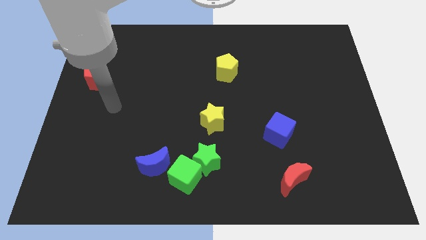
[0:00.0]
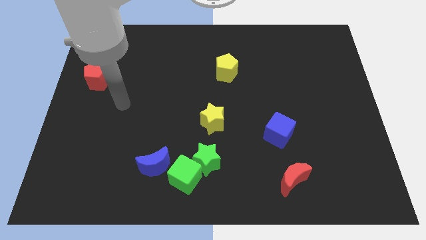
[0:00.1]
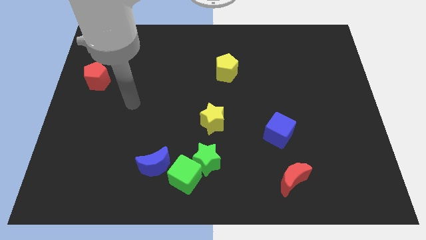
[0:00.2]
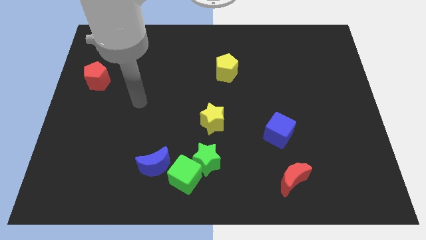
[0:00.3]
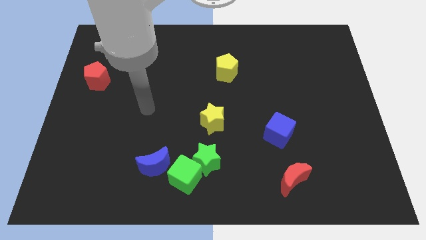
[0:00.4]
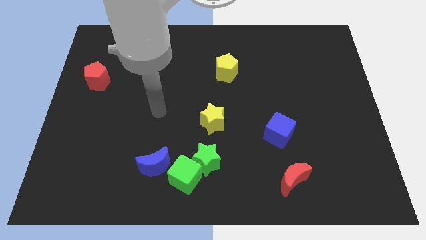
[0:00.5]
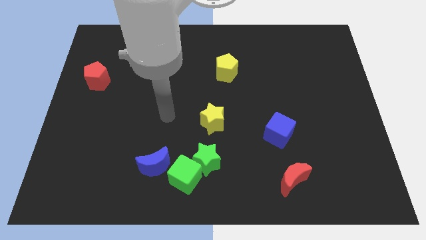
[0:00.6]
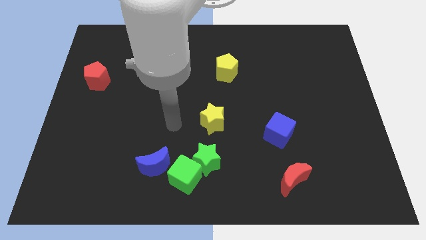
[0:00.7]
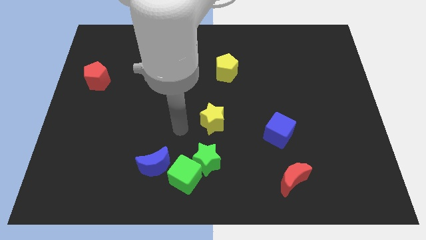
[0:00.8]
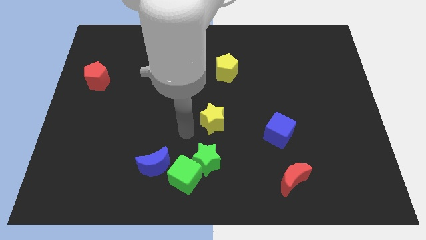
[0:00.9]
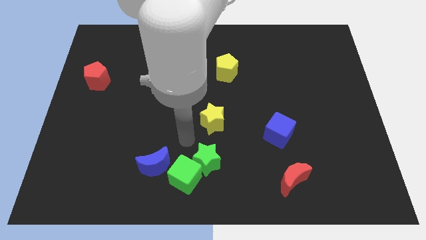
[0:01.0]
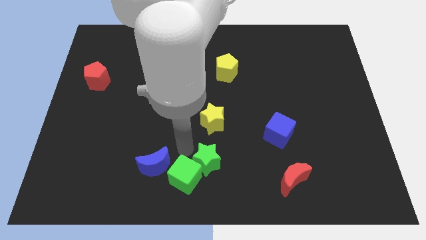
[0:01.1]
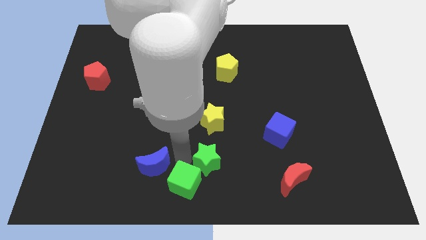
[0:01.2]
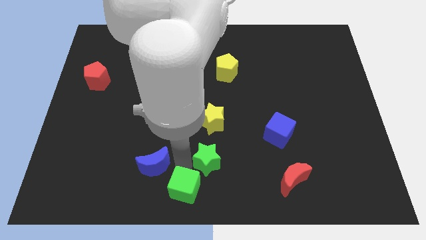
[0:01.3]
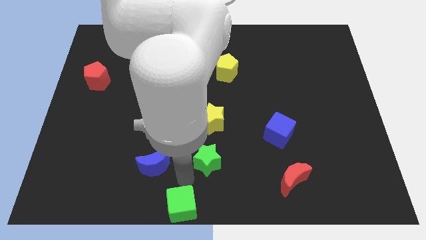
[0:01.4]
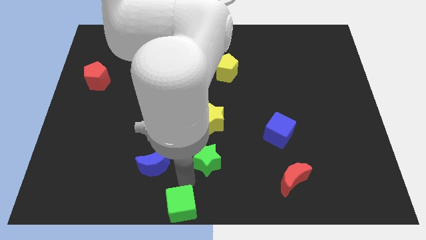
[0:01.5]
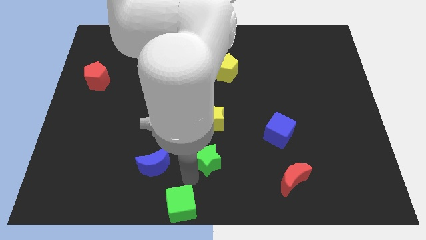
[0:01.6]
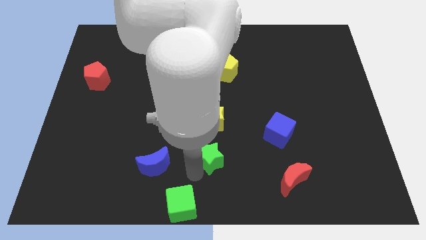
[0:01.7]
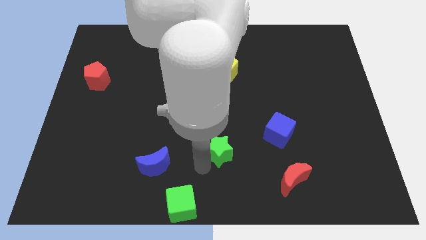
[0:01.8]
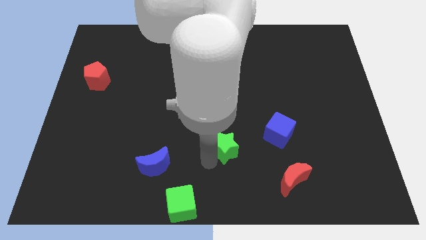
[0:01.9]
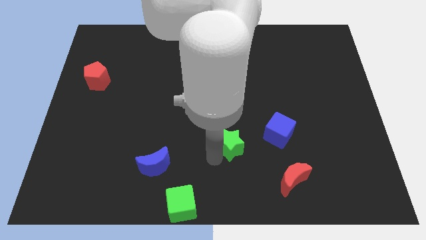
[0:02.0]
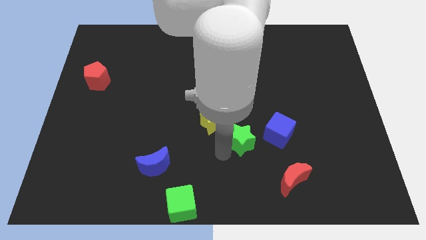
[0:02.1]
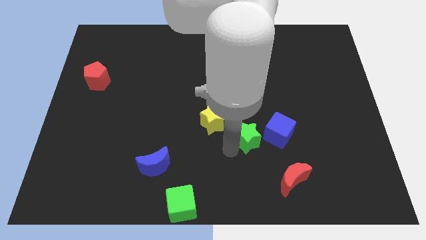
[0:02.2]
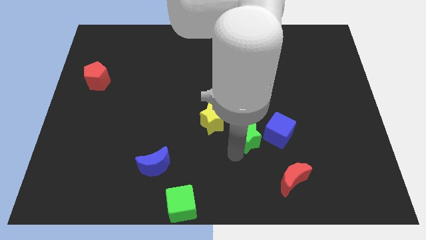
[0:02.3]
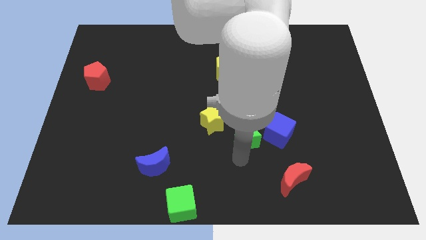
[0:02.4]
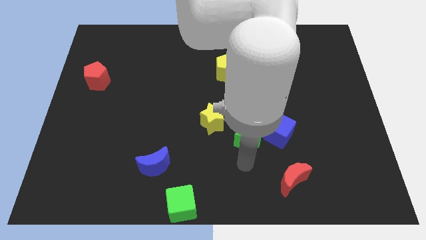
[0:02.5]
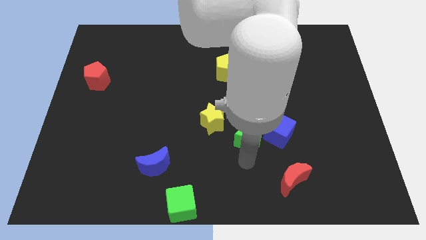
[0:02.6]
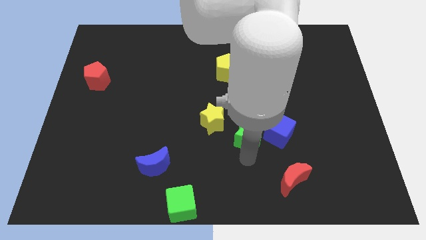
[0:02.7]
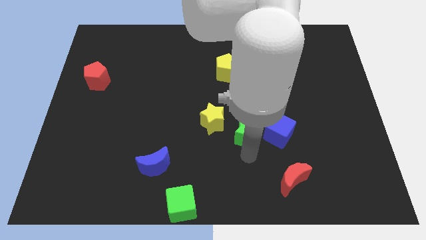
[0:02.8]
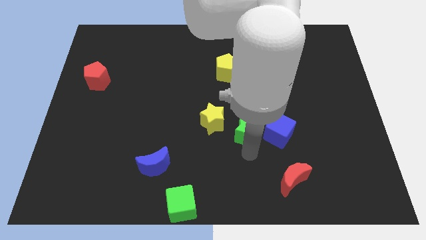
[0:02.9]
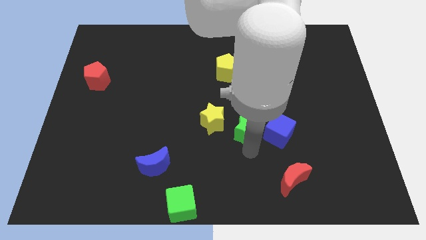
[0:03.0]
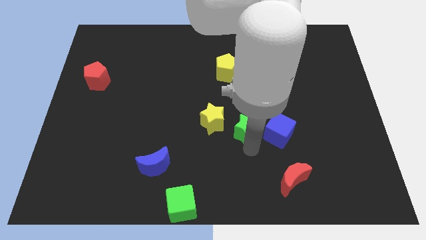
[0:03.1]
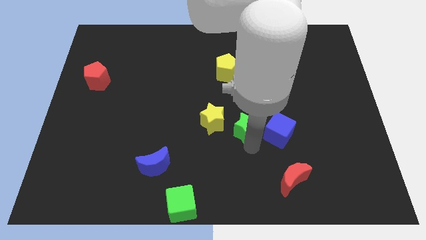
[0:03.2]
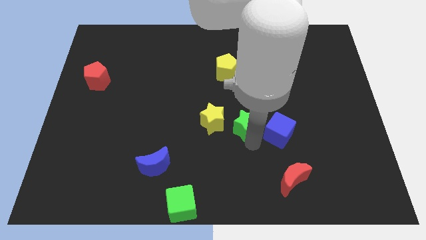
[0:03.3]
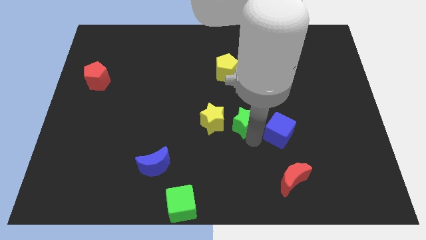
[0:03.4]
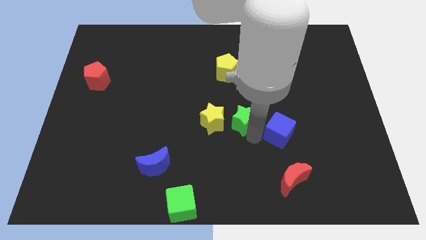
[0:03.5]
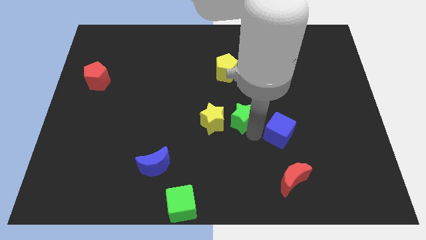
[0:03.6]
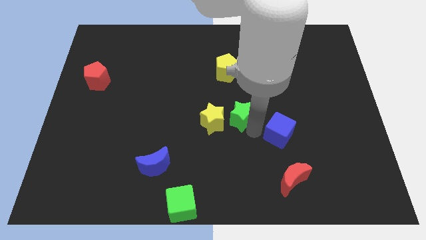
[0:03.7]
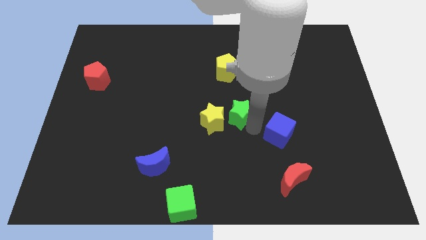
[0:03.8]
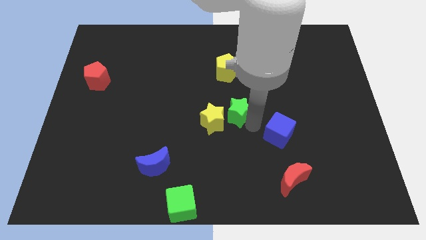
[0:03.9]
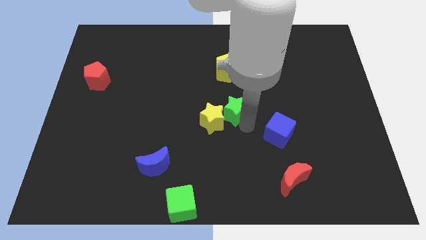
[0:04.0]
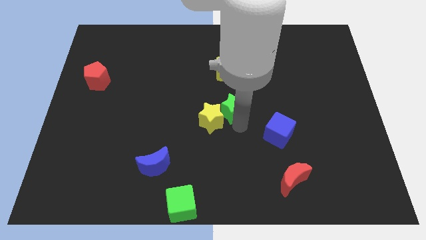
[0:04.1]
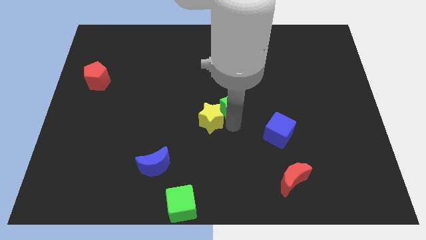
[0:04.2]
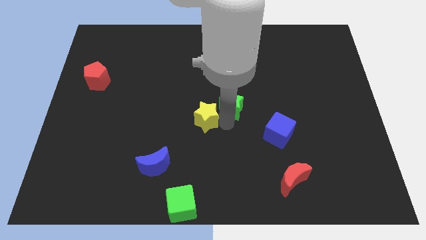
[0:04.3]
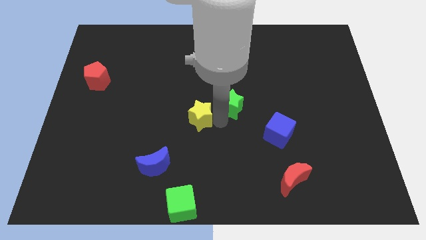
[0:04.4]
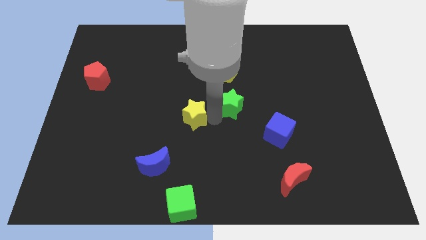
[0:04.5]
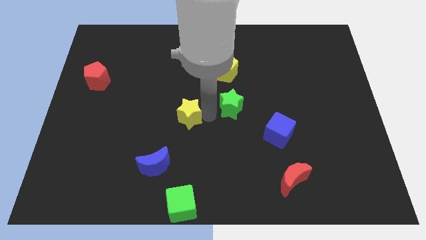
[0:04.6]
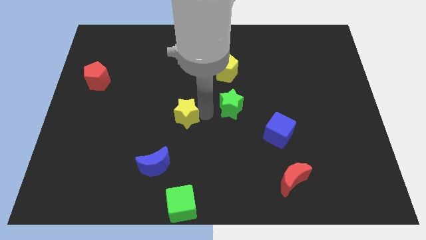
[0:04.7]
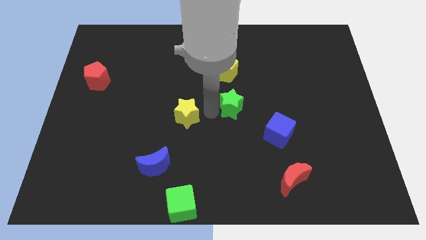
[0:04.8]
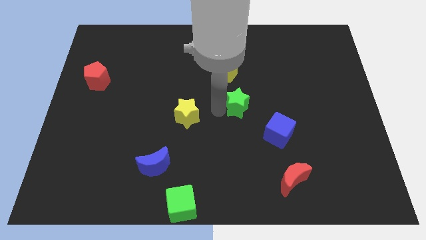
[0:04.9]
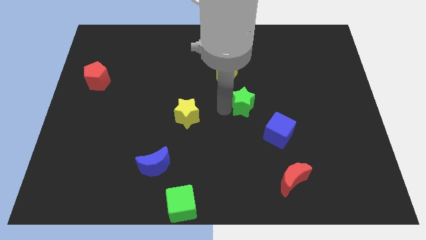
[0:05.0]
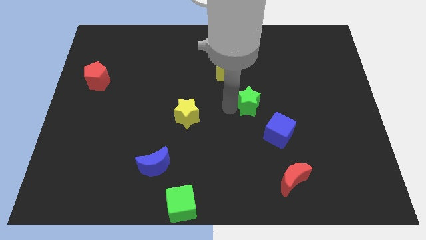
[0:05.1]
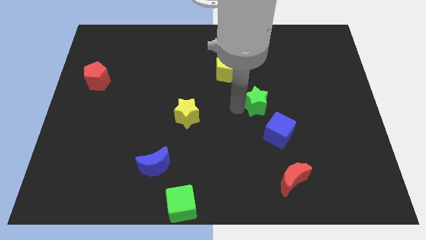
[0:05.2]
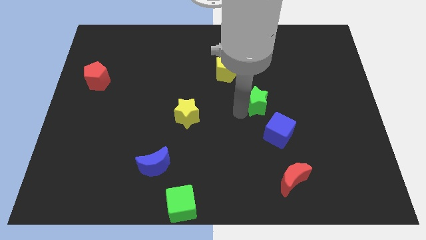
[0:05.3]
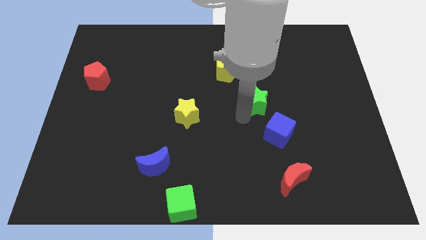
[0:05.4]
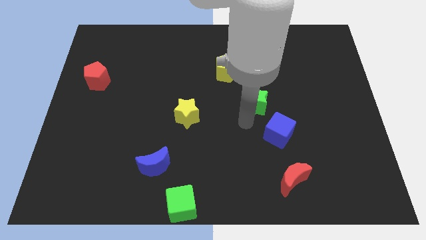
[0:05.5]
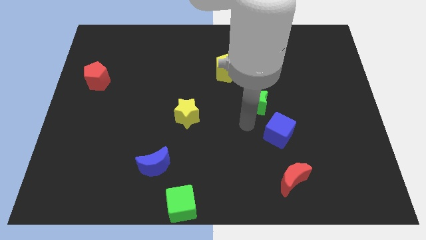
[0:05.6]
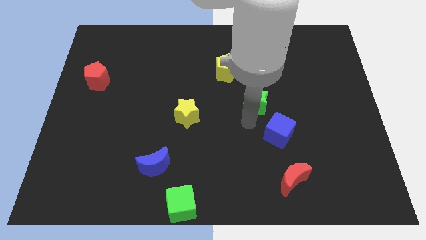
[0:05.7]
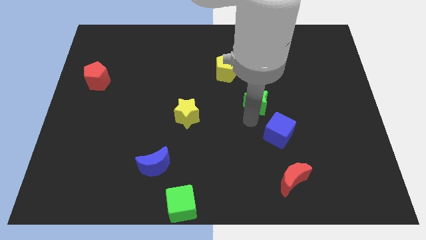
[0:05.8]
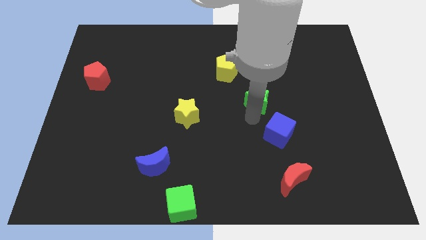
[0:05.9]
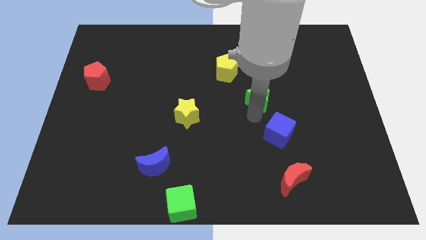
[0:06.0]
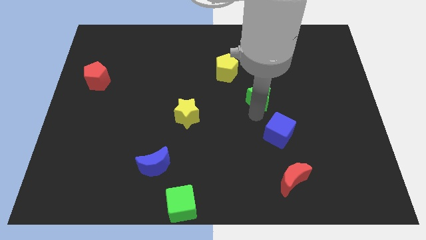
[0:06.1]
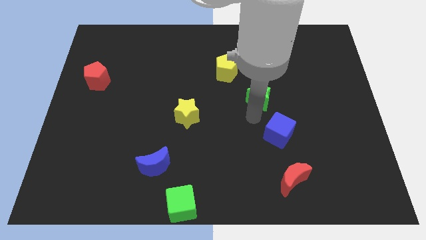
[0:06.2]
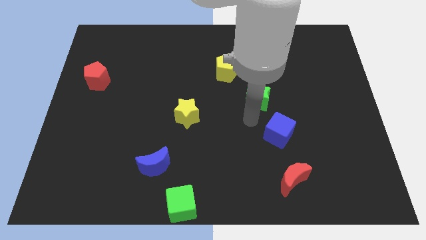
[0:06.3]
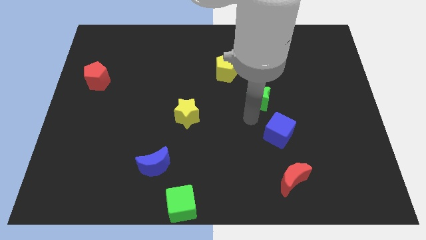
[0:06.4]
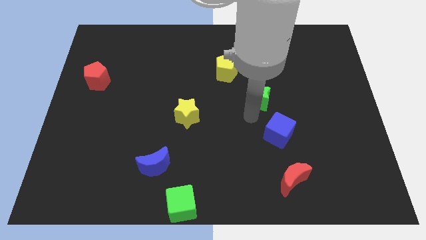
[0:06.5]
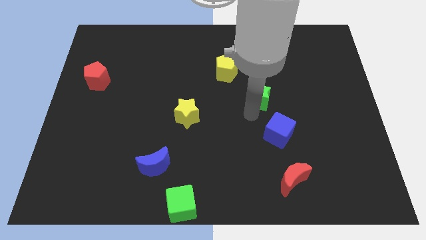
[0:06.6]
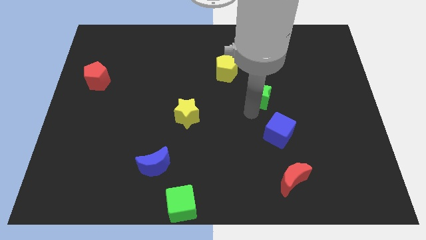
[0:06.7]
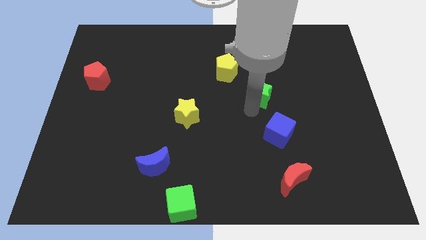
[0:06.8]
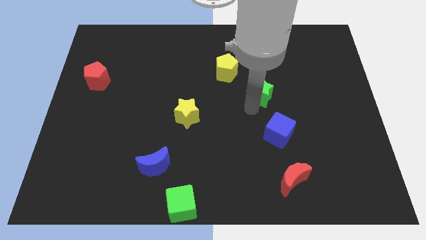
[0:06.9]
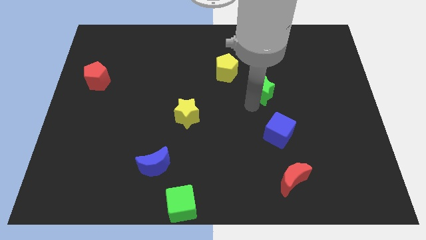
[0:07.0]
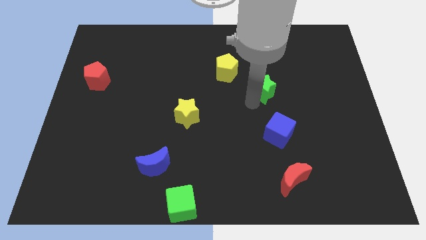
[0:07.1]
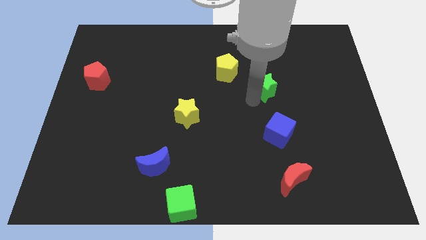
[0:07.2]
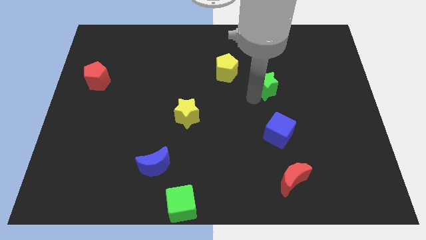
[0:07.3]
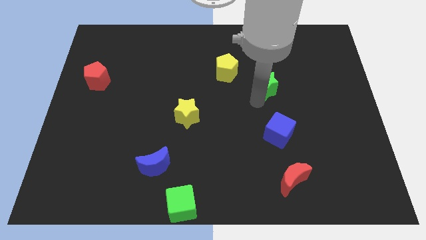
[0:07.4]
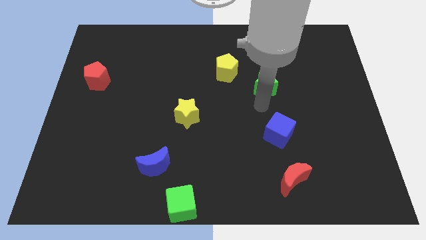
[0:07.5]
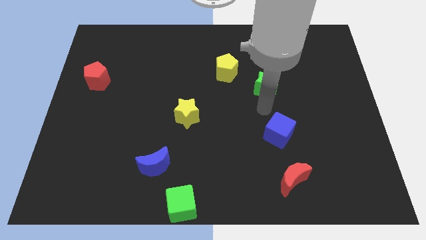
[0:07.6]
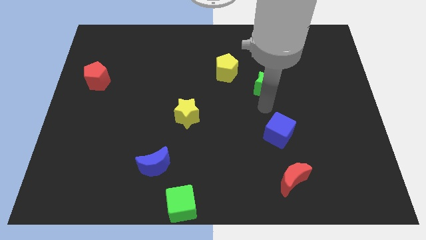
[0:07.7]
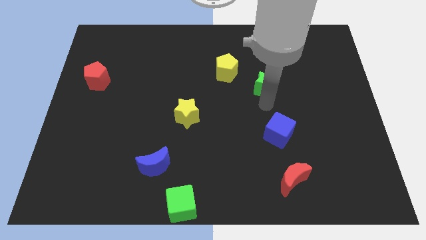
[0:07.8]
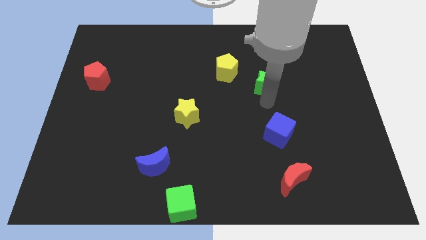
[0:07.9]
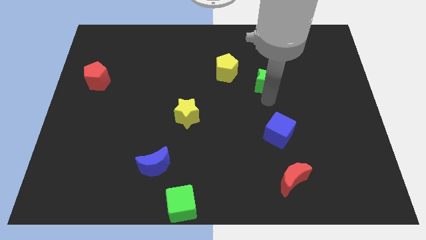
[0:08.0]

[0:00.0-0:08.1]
push the green star to the right of the yellow pentagon
